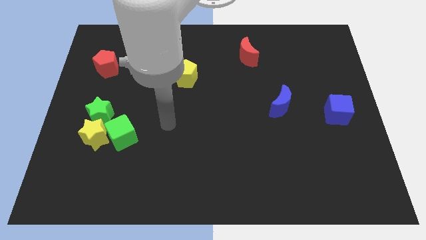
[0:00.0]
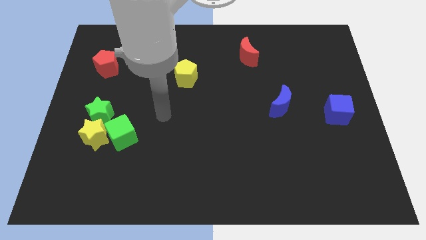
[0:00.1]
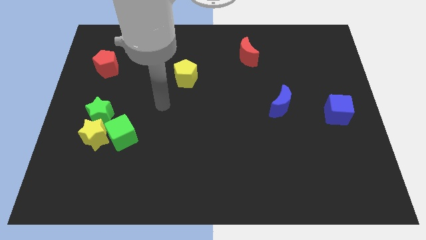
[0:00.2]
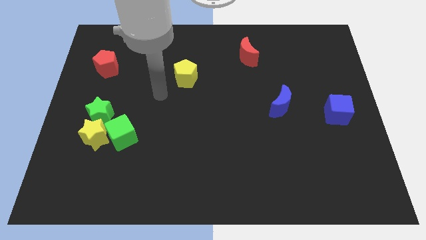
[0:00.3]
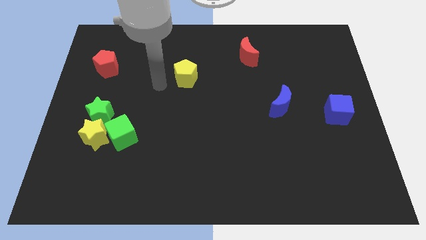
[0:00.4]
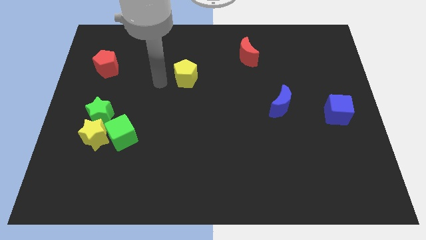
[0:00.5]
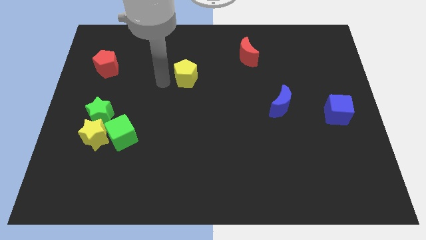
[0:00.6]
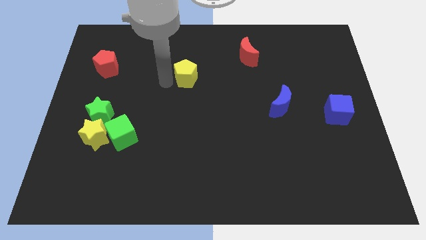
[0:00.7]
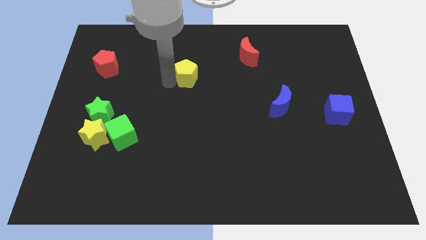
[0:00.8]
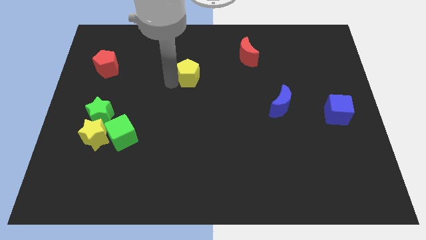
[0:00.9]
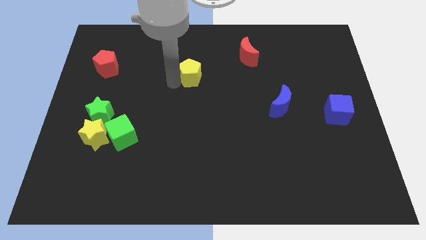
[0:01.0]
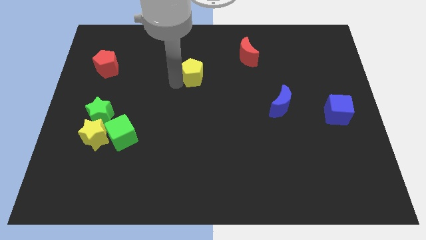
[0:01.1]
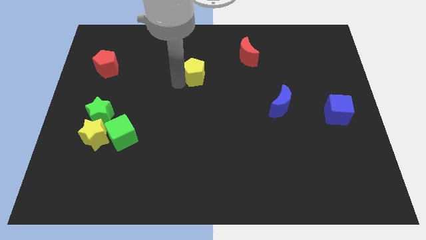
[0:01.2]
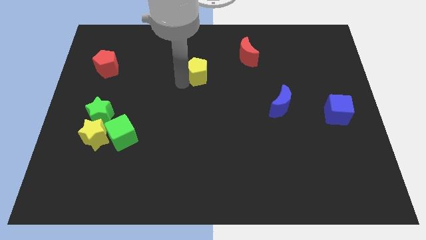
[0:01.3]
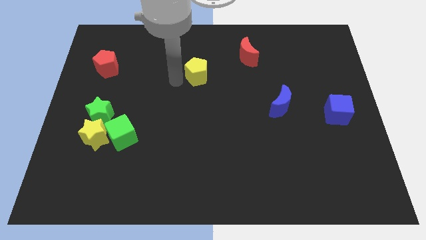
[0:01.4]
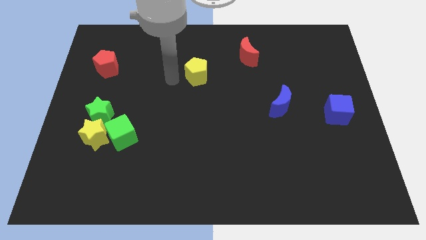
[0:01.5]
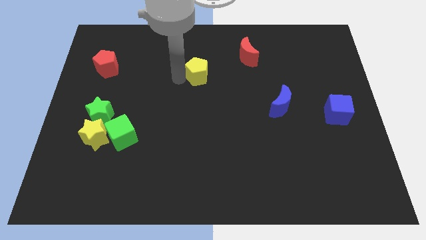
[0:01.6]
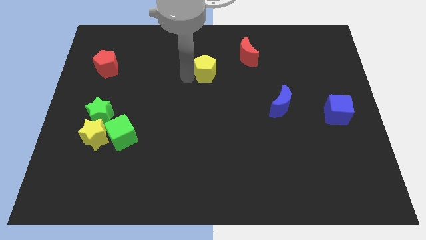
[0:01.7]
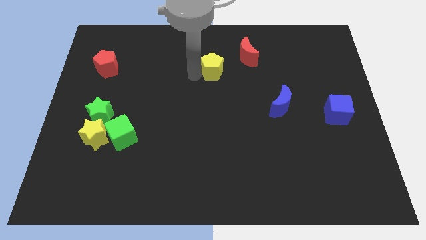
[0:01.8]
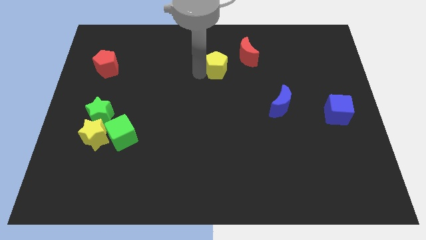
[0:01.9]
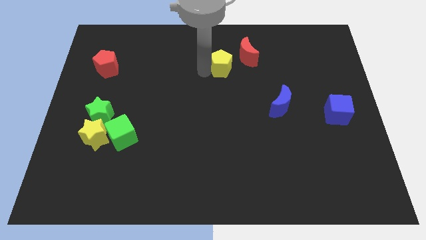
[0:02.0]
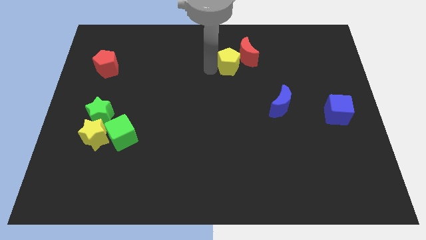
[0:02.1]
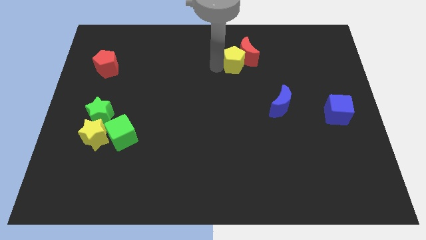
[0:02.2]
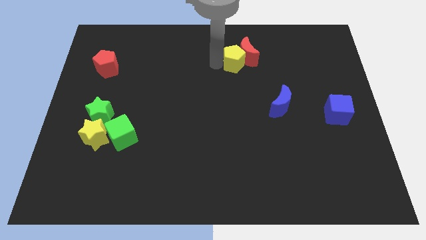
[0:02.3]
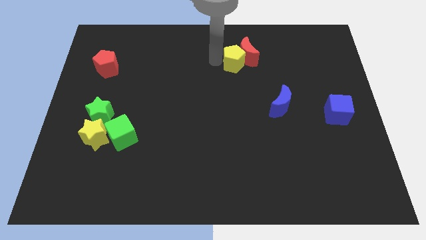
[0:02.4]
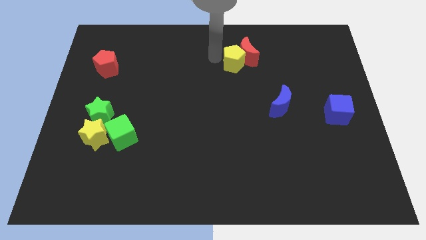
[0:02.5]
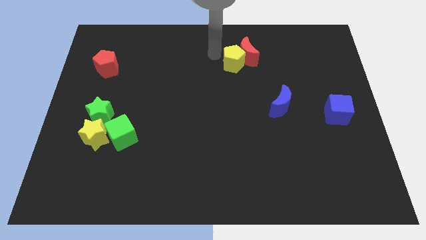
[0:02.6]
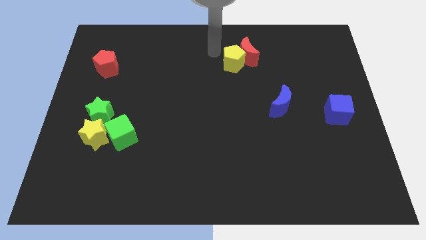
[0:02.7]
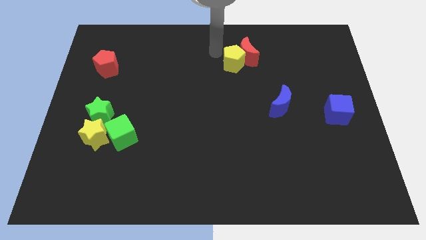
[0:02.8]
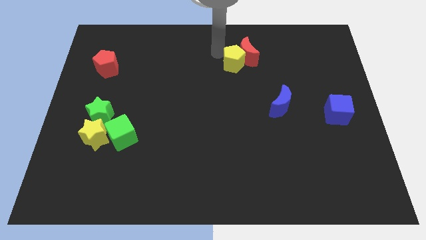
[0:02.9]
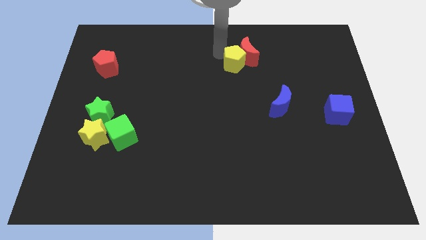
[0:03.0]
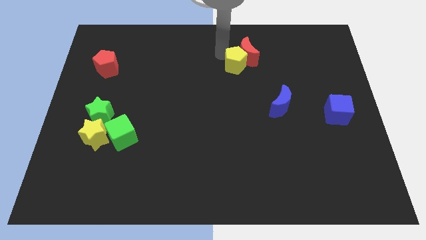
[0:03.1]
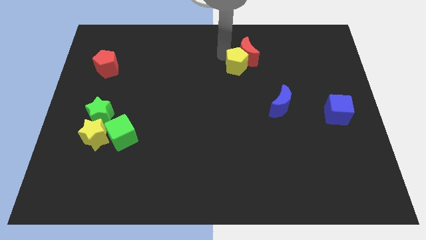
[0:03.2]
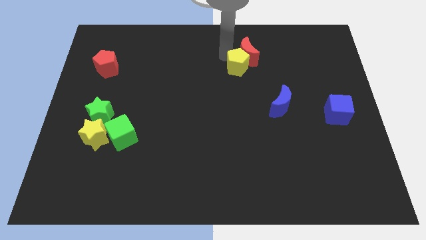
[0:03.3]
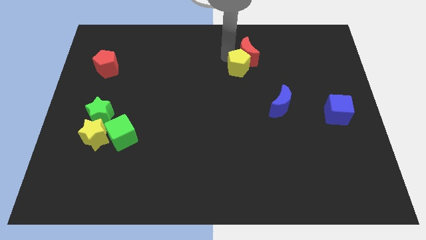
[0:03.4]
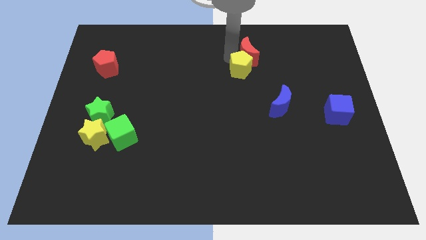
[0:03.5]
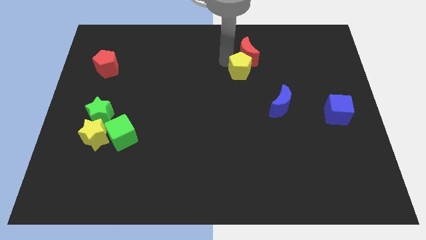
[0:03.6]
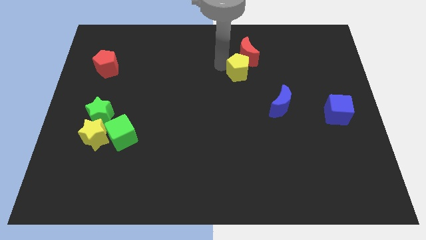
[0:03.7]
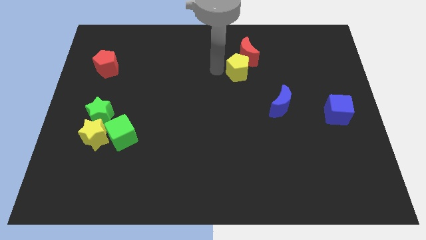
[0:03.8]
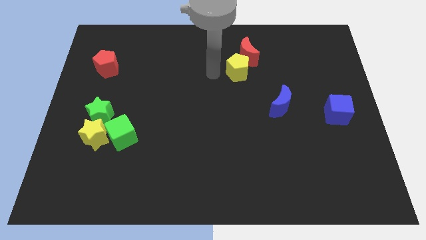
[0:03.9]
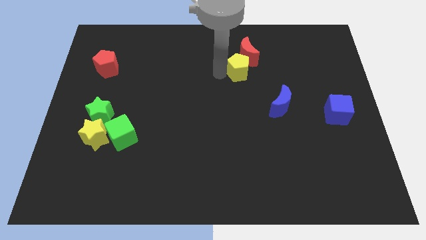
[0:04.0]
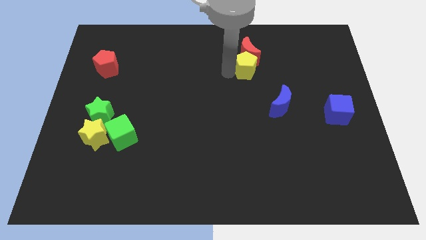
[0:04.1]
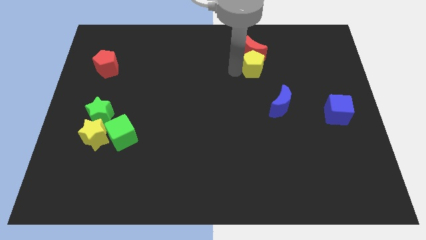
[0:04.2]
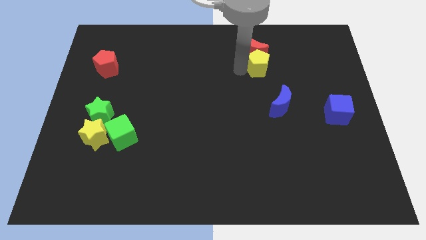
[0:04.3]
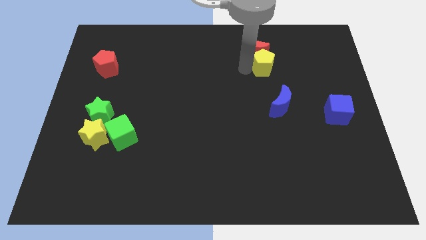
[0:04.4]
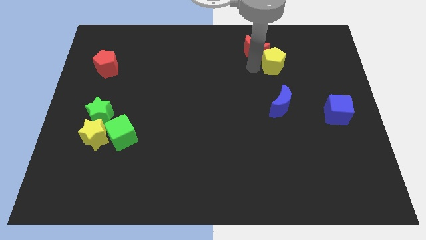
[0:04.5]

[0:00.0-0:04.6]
push the yellow pentagon to the right

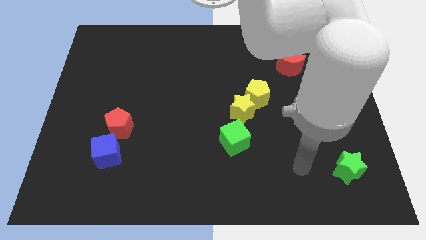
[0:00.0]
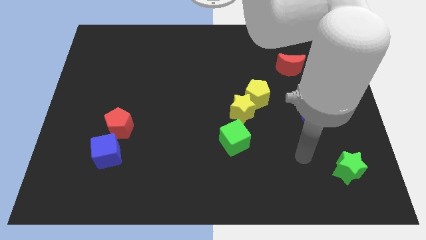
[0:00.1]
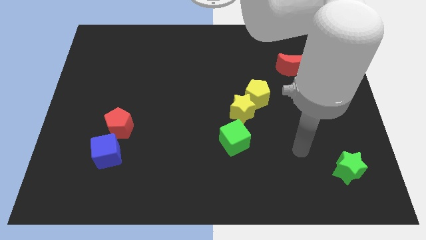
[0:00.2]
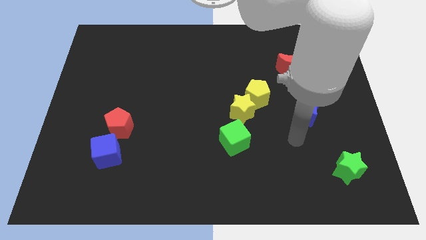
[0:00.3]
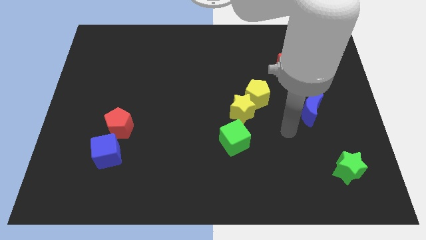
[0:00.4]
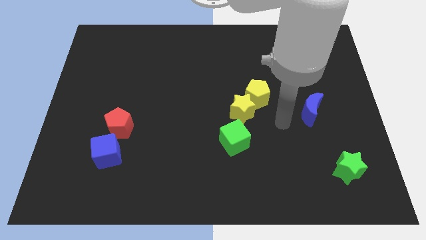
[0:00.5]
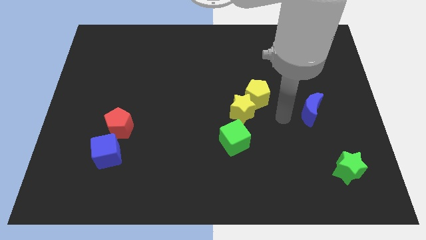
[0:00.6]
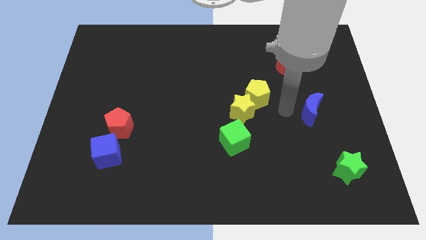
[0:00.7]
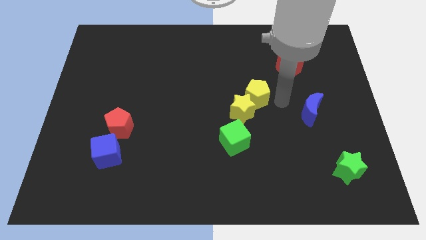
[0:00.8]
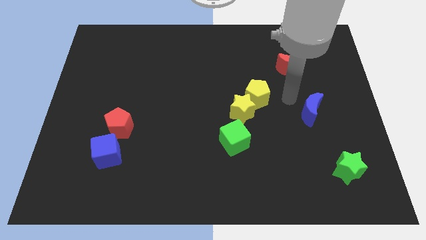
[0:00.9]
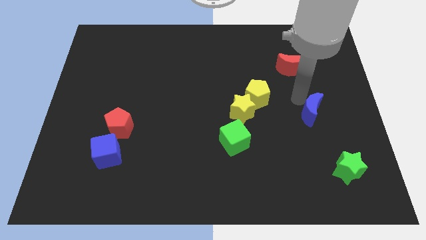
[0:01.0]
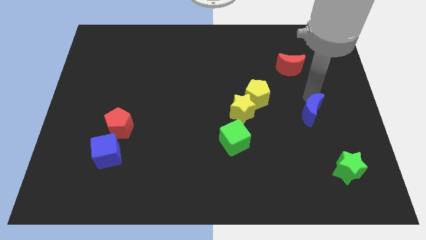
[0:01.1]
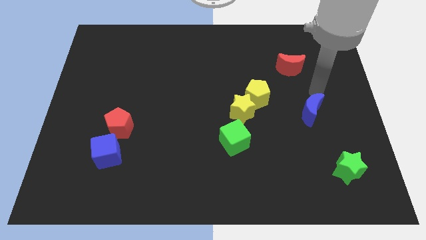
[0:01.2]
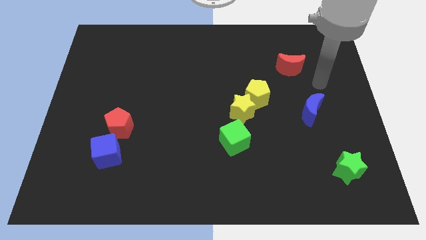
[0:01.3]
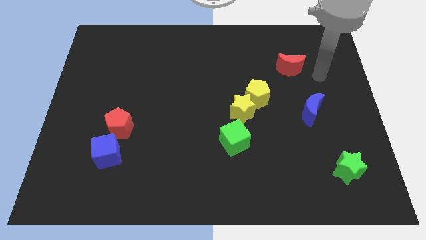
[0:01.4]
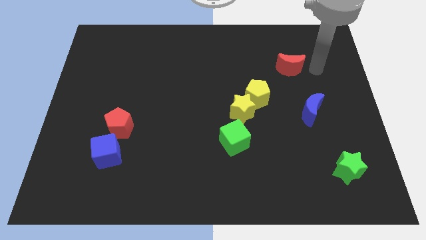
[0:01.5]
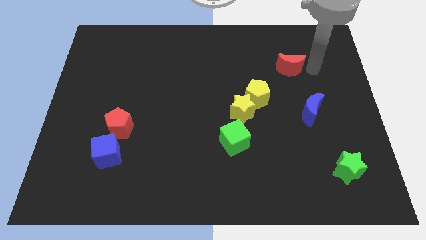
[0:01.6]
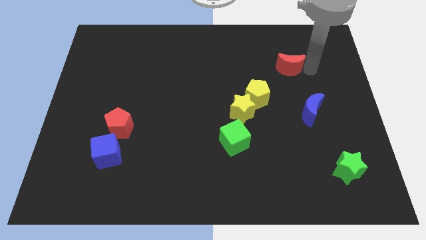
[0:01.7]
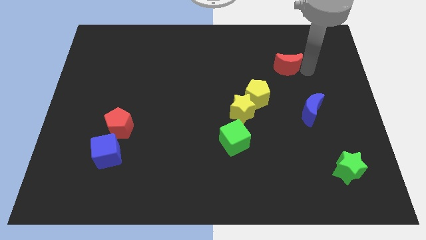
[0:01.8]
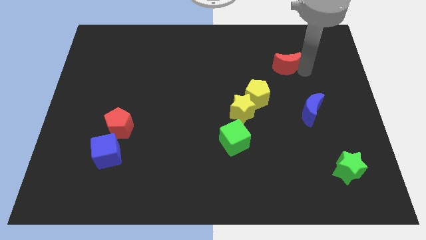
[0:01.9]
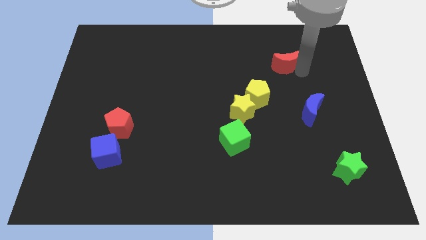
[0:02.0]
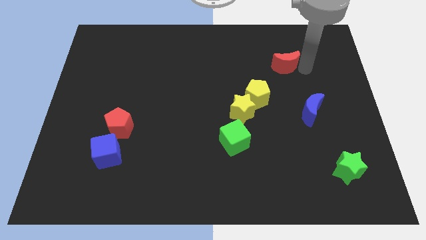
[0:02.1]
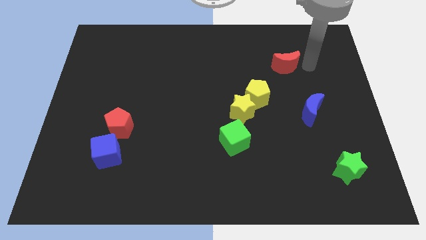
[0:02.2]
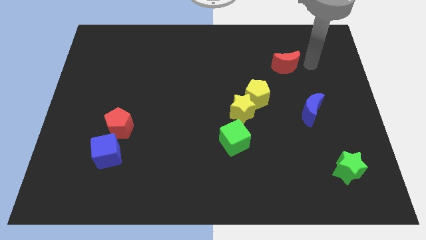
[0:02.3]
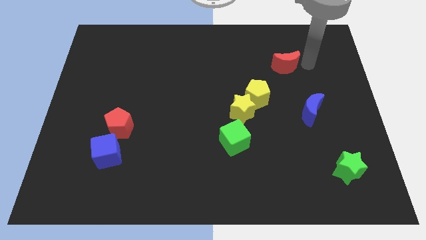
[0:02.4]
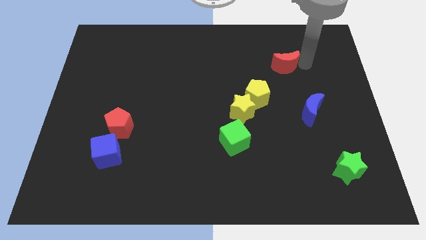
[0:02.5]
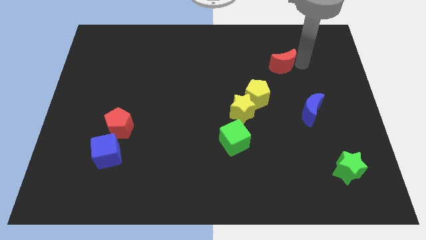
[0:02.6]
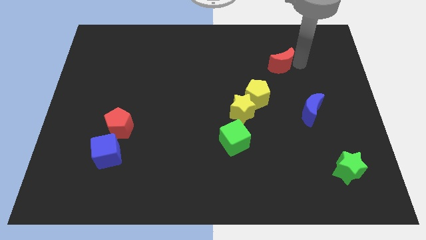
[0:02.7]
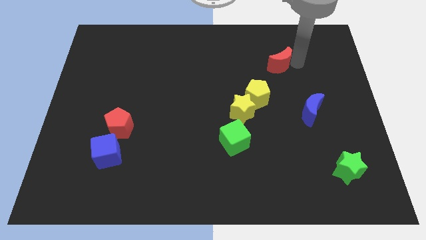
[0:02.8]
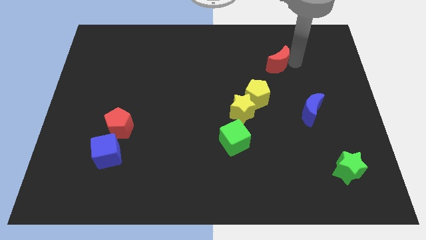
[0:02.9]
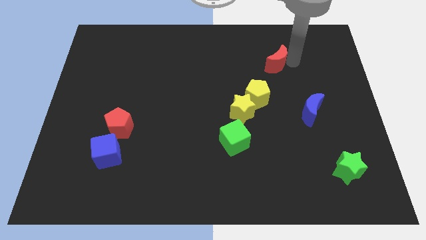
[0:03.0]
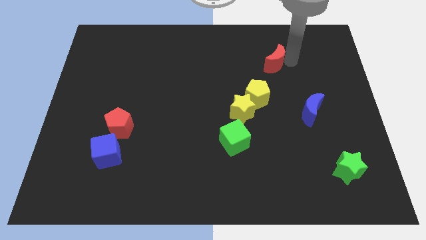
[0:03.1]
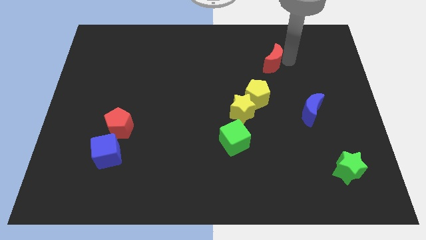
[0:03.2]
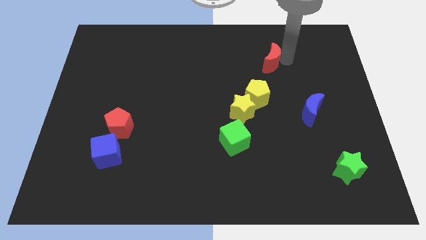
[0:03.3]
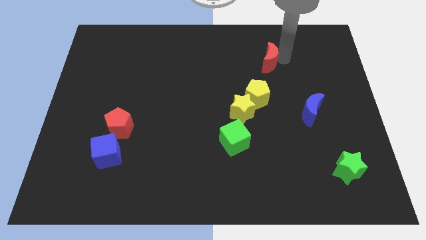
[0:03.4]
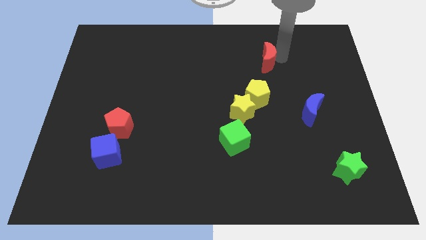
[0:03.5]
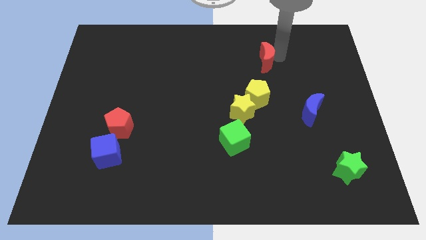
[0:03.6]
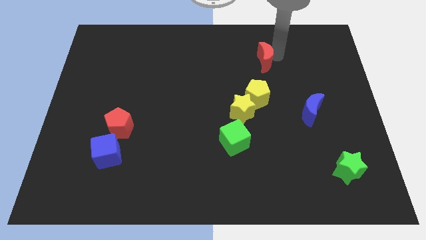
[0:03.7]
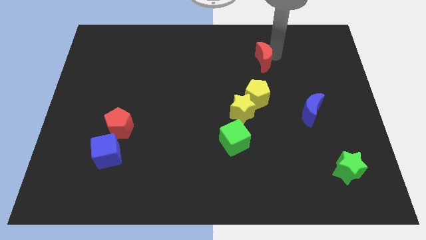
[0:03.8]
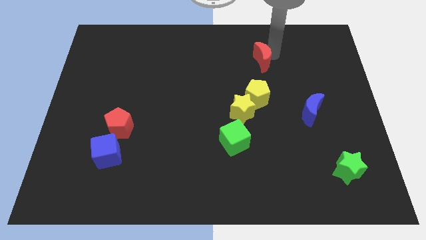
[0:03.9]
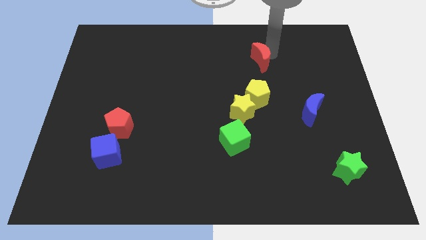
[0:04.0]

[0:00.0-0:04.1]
slightly push the red moon to the left
